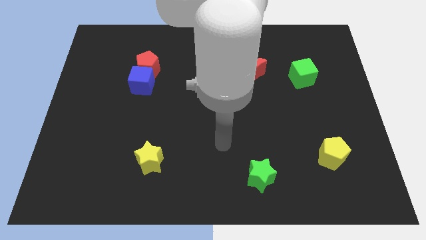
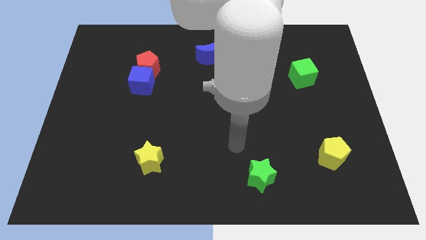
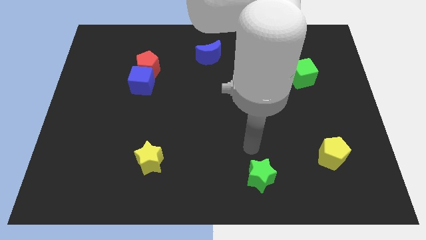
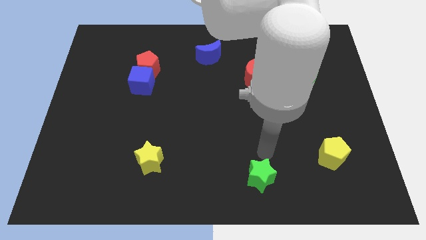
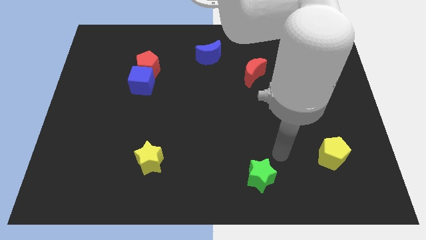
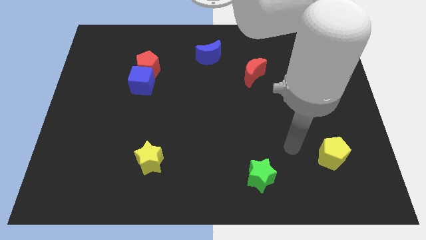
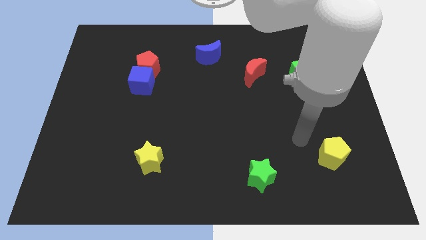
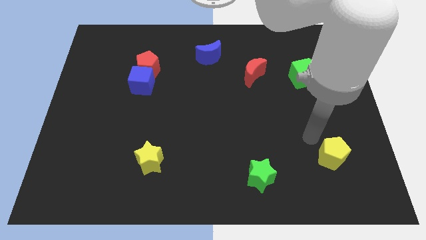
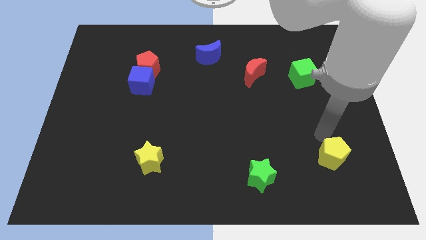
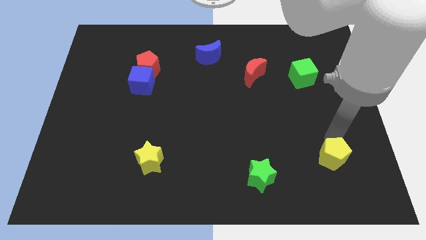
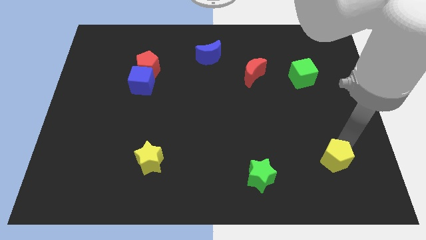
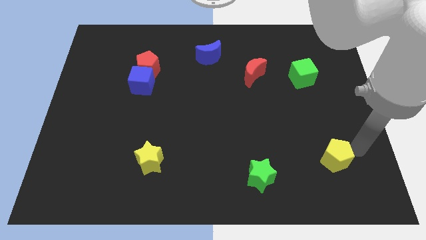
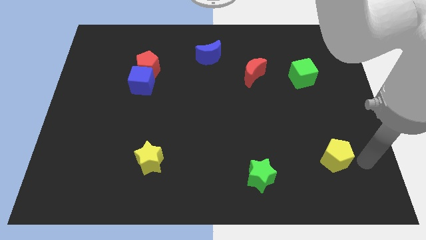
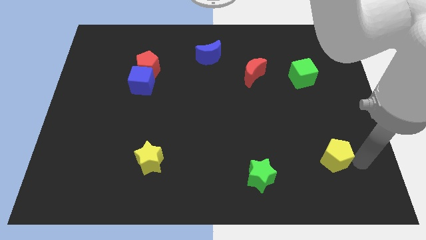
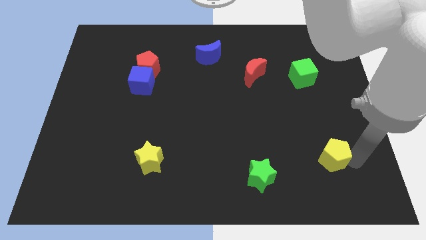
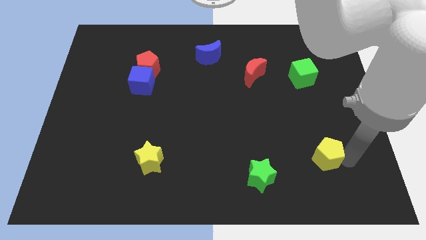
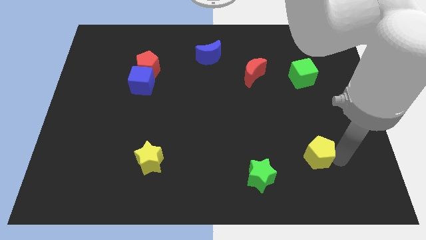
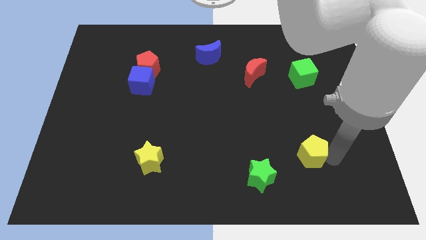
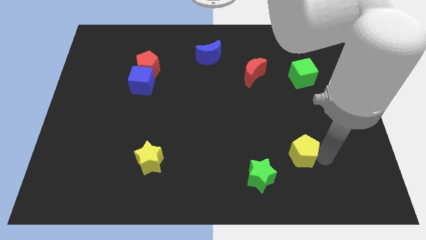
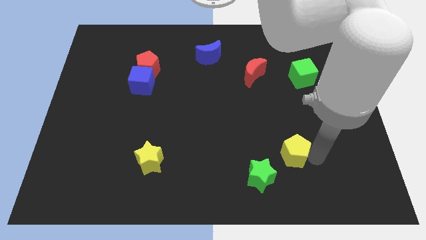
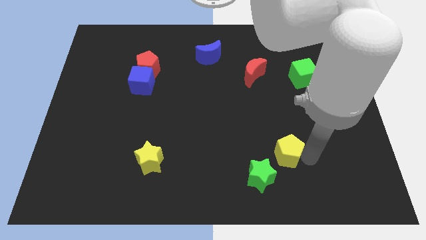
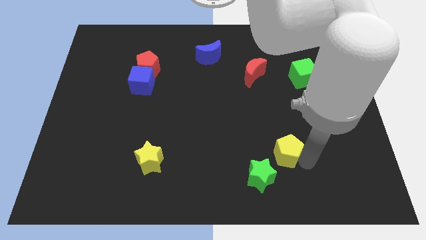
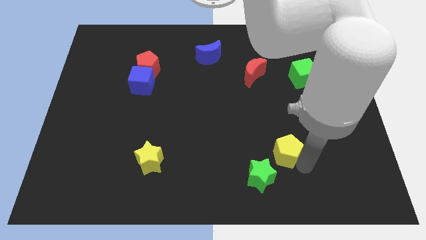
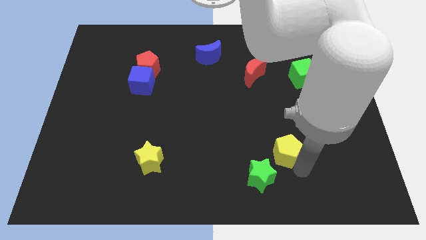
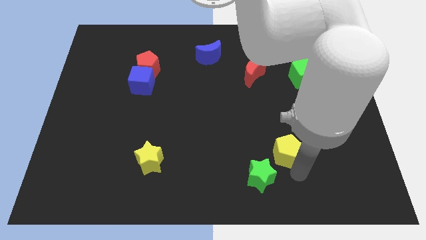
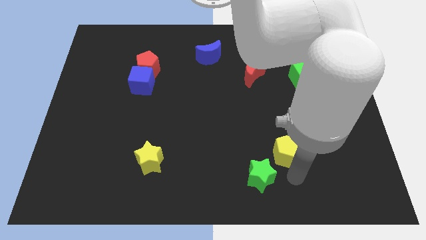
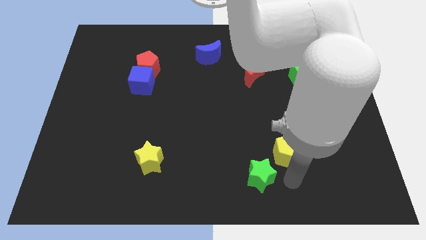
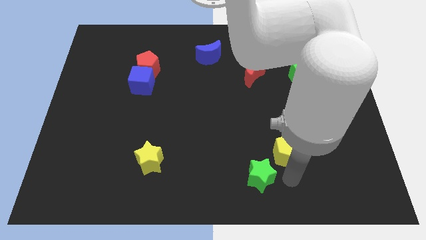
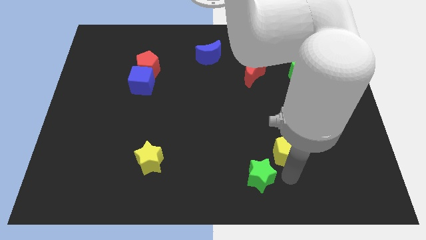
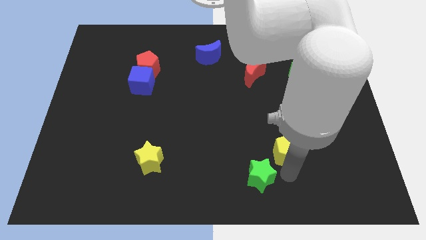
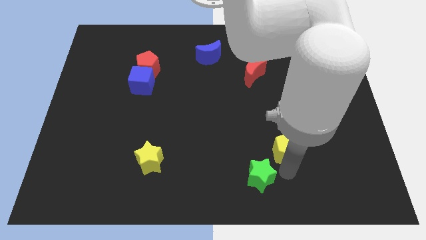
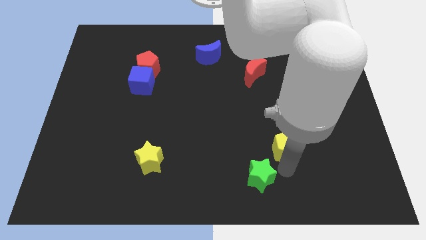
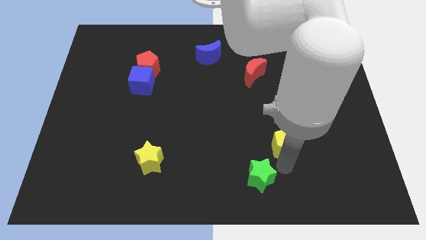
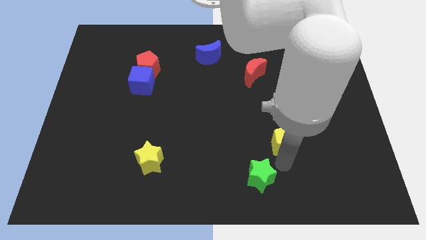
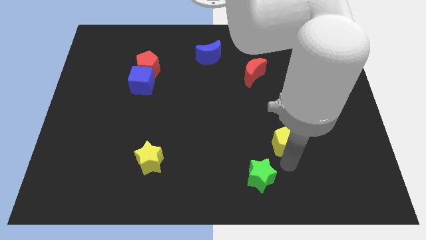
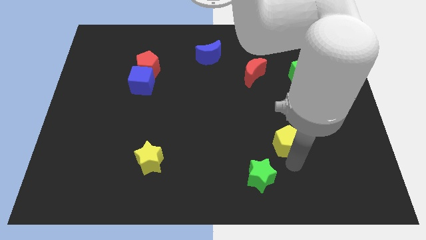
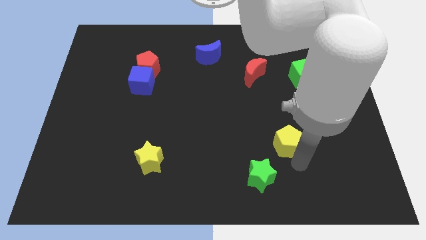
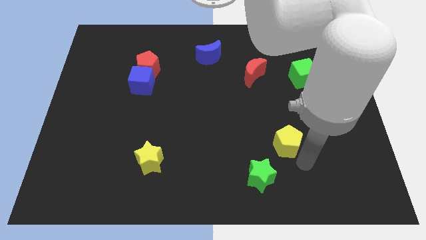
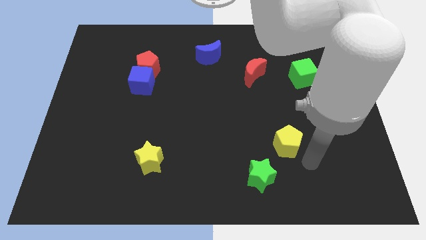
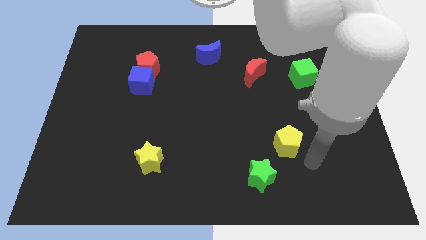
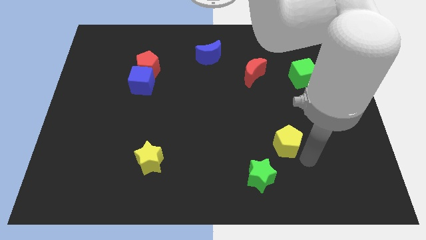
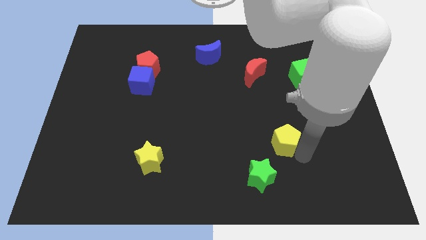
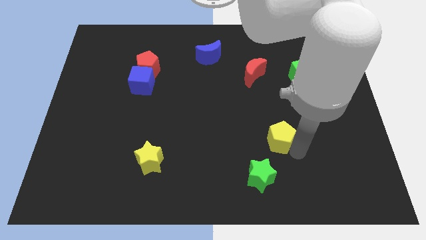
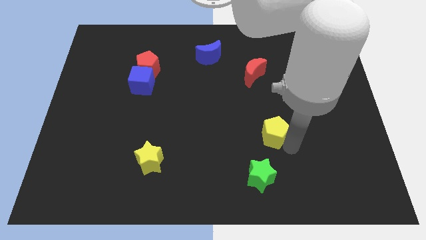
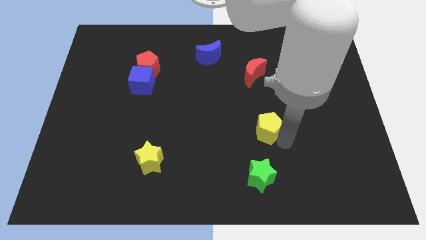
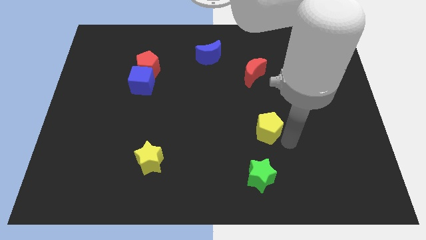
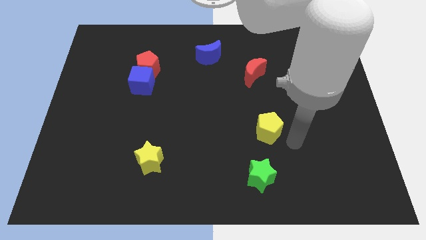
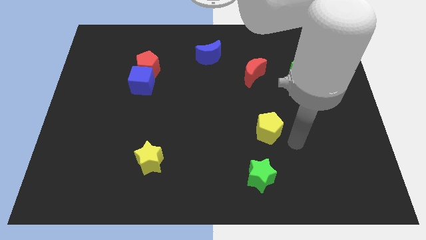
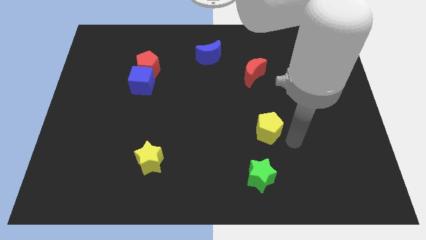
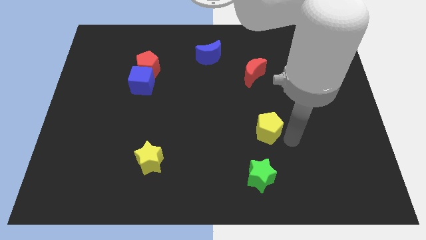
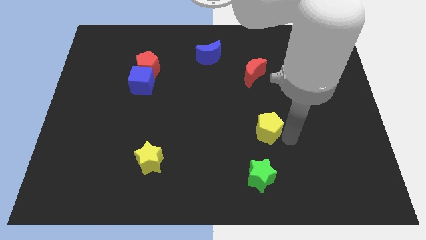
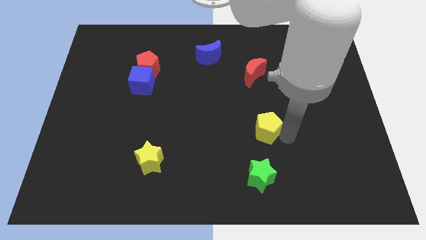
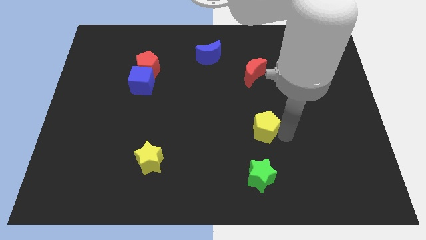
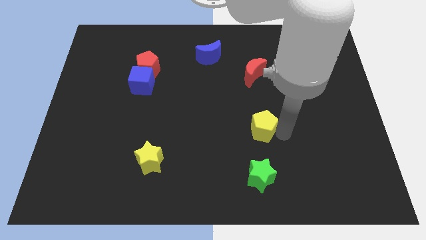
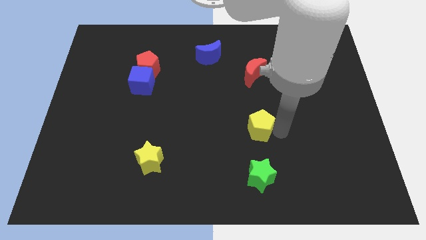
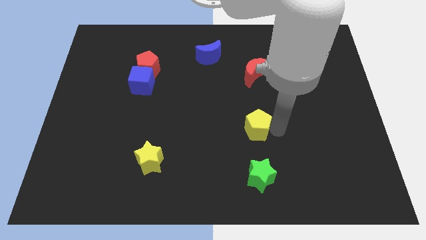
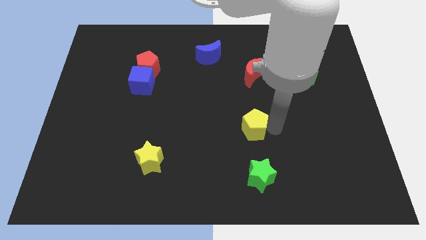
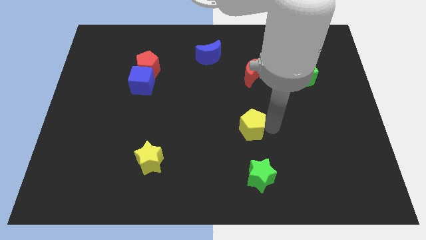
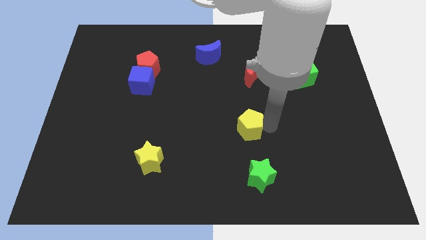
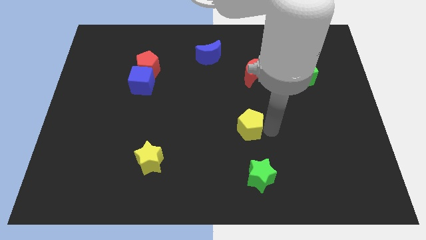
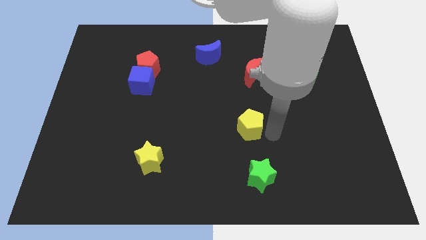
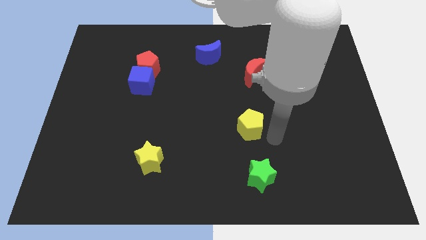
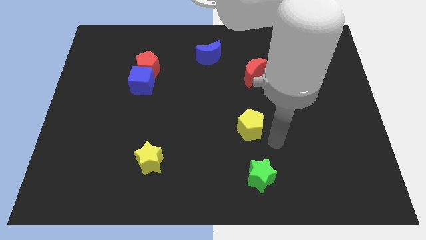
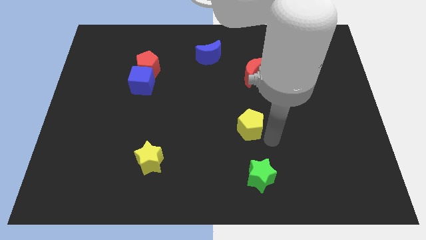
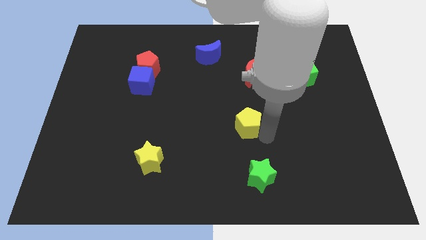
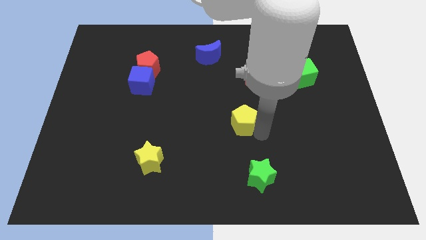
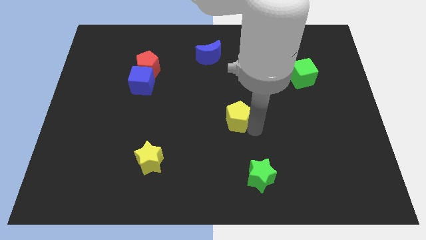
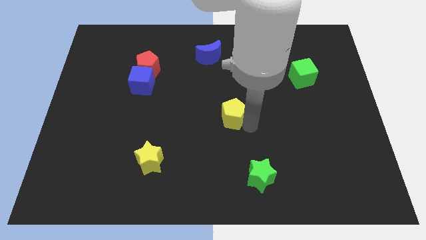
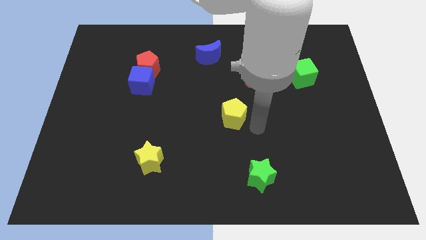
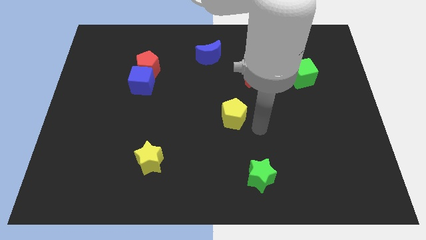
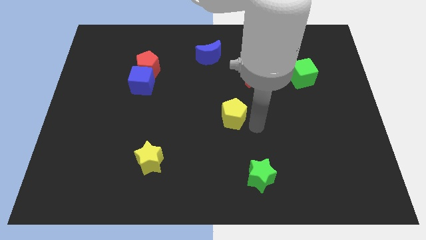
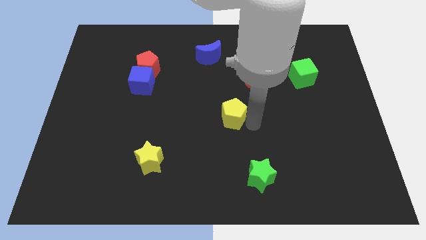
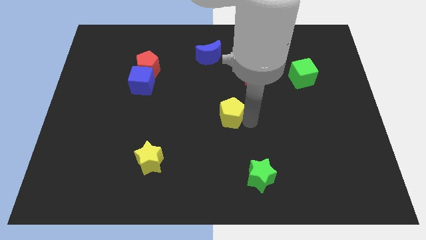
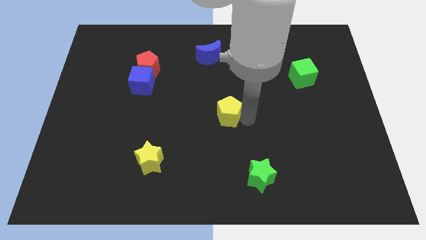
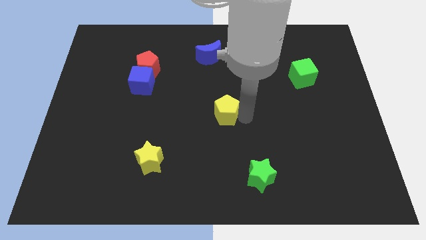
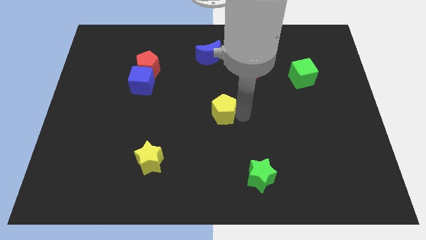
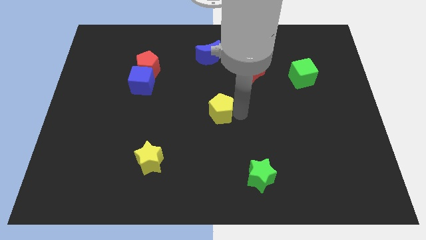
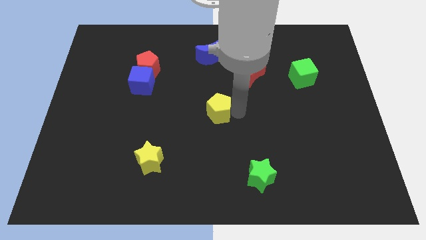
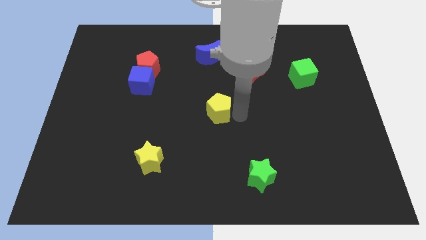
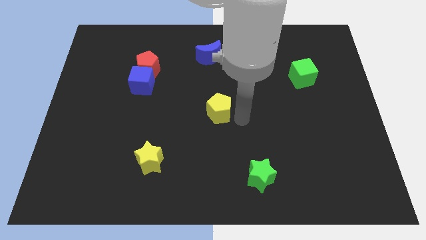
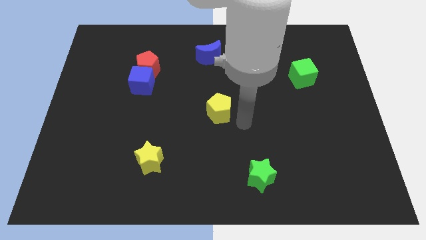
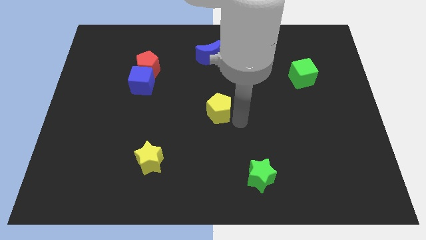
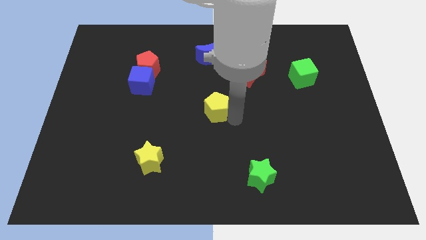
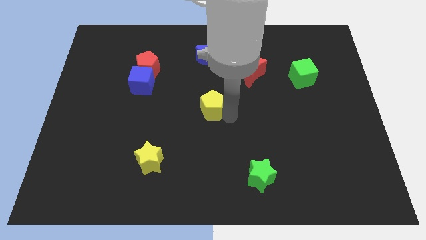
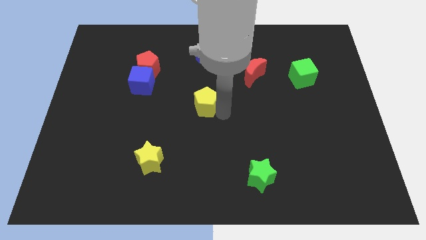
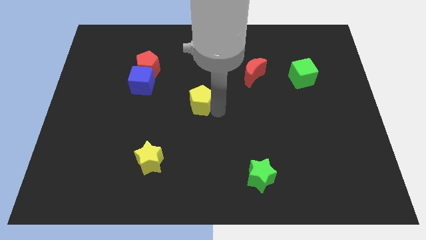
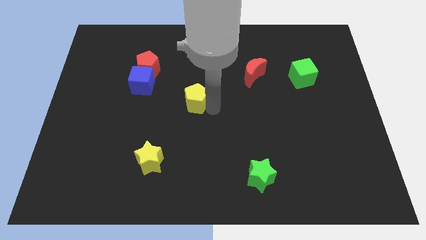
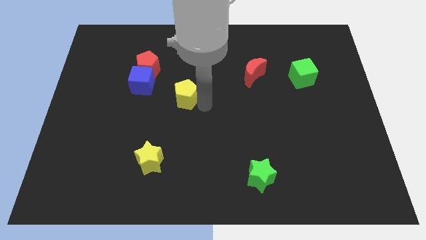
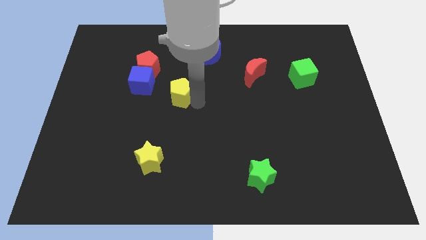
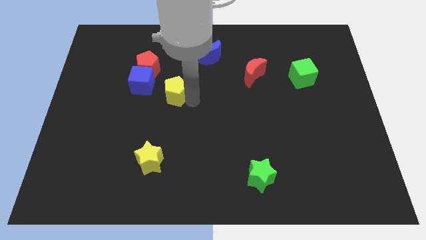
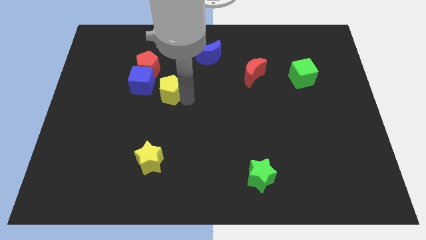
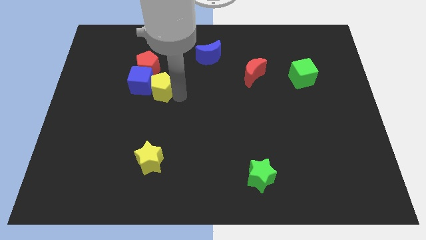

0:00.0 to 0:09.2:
put the yellow pentagon to the blue cube
